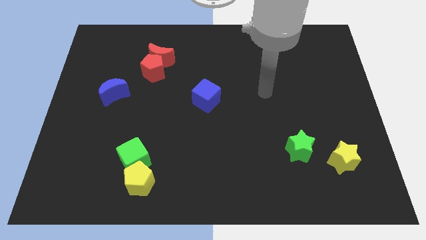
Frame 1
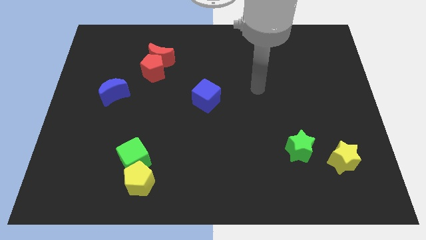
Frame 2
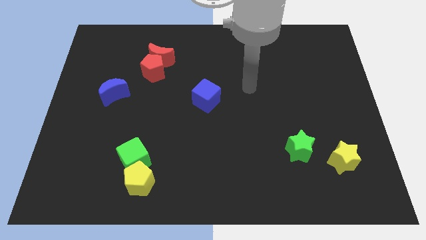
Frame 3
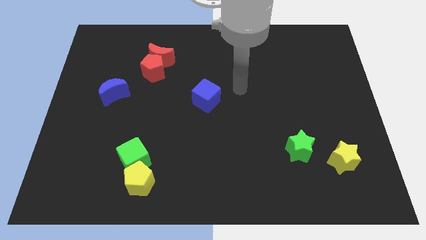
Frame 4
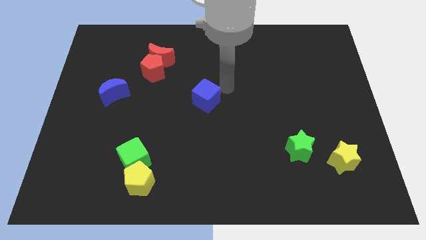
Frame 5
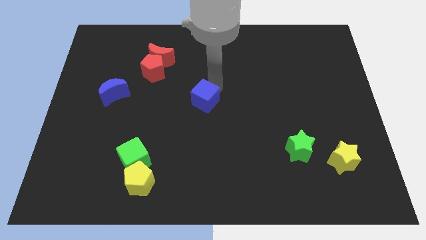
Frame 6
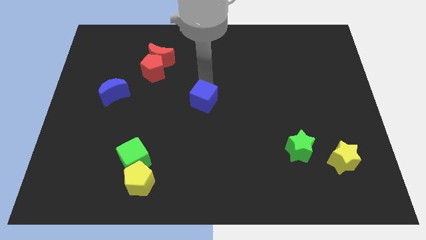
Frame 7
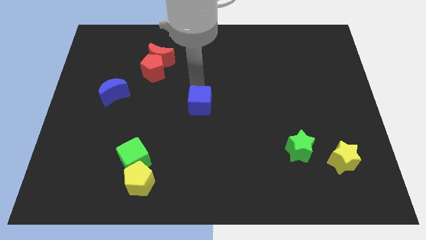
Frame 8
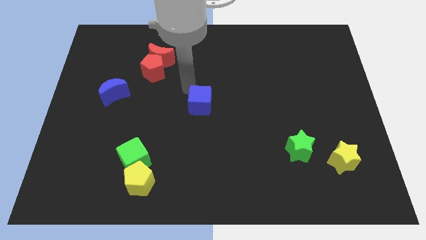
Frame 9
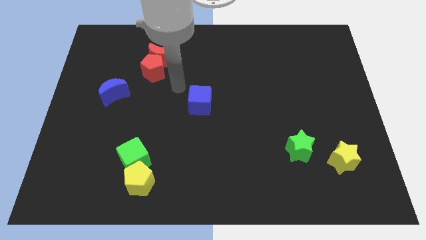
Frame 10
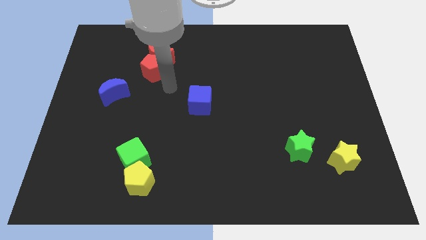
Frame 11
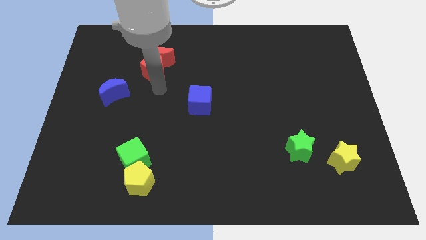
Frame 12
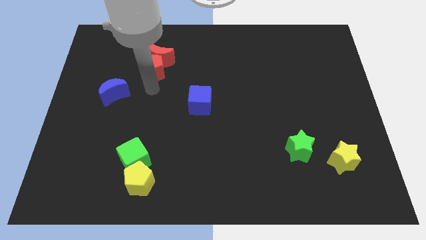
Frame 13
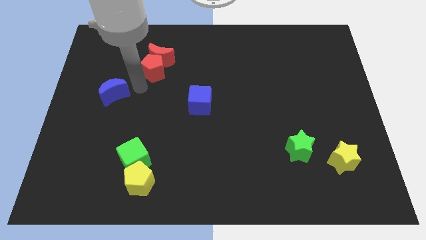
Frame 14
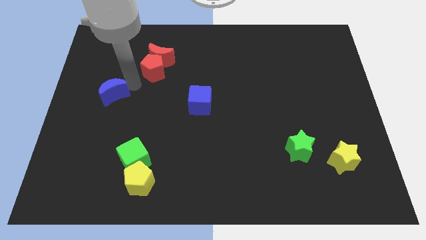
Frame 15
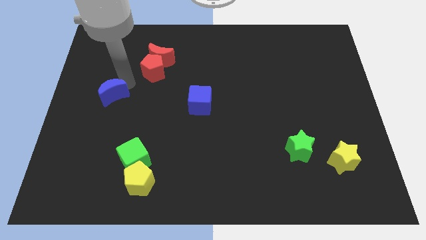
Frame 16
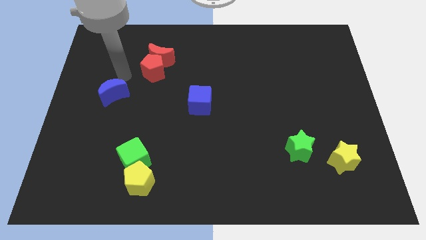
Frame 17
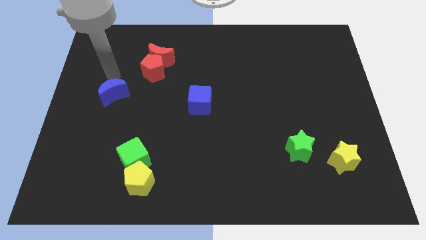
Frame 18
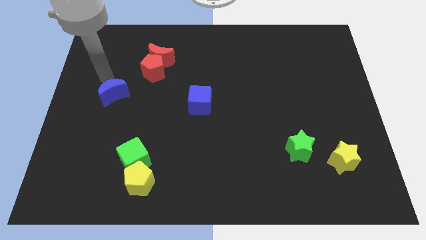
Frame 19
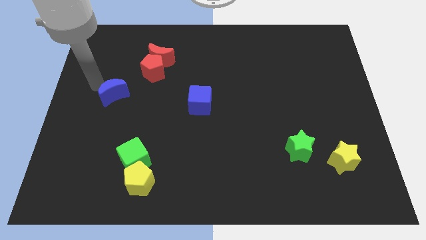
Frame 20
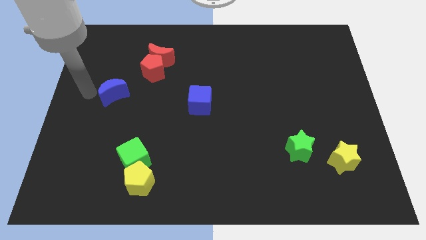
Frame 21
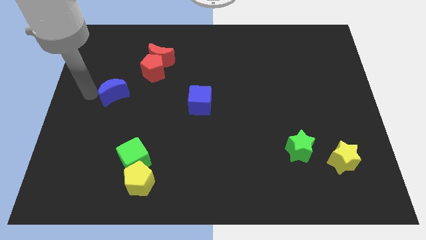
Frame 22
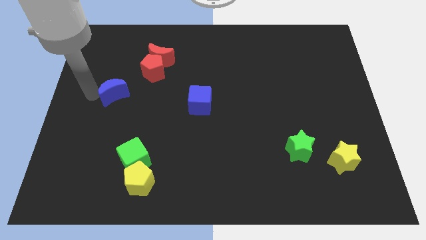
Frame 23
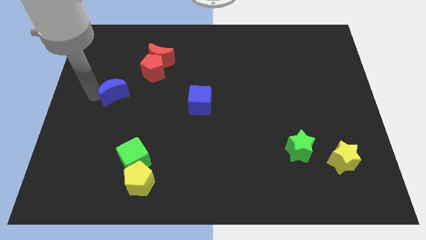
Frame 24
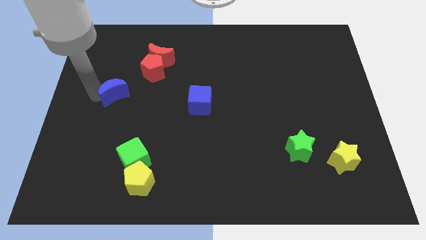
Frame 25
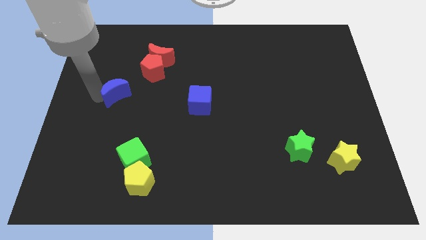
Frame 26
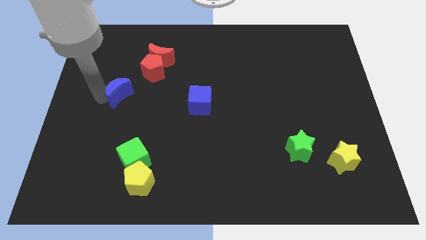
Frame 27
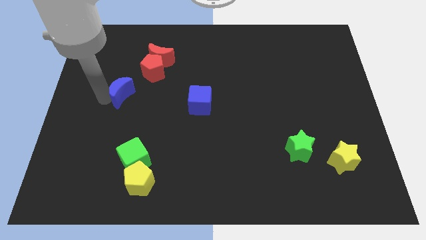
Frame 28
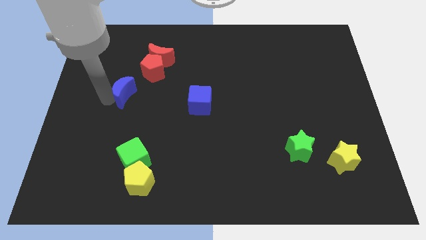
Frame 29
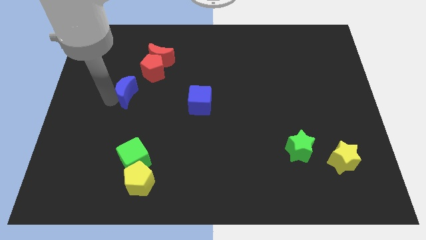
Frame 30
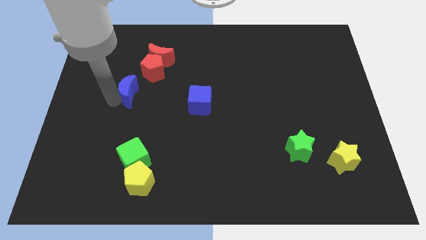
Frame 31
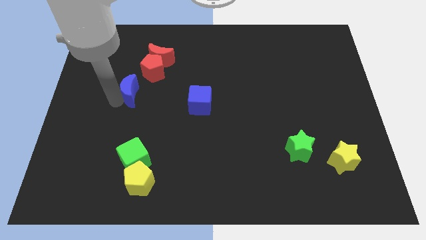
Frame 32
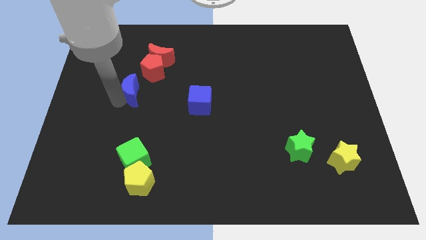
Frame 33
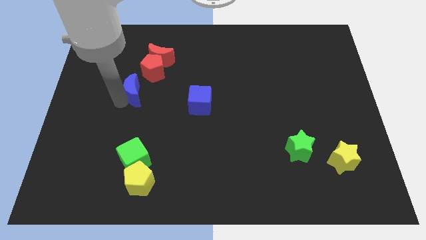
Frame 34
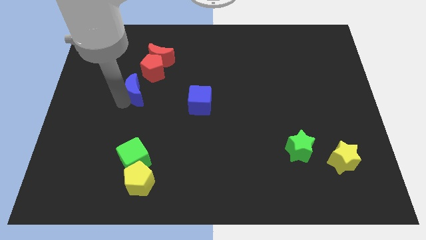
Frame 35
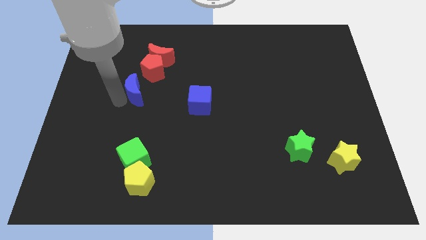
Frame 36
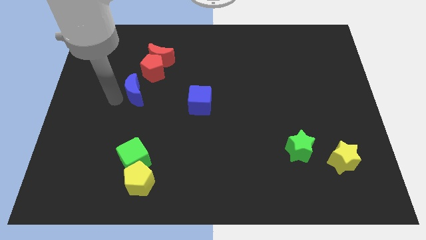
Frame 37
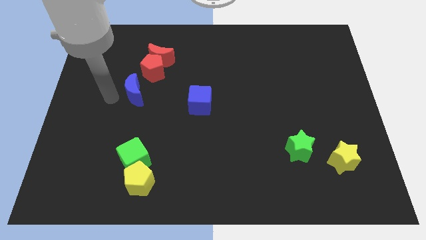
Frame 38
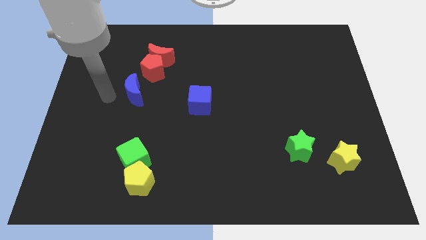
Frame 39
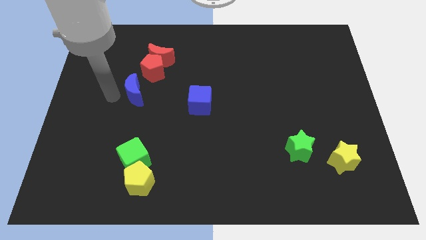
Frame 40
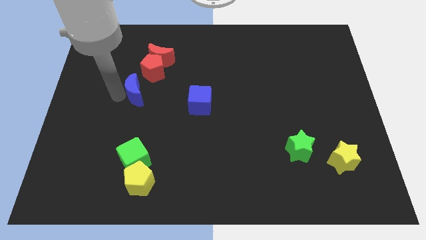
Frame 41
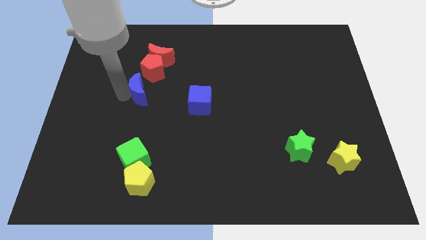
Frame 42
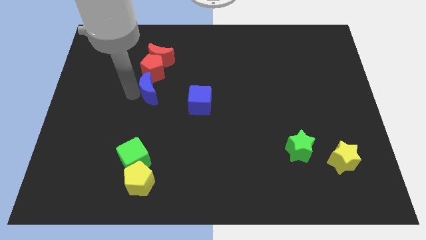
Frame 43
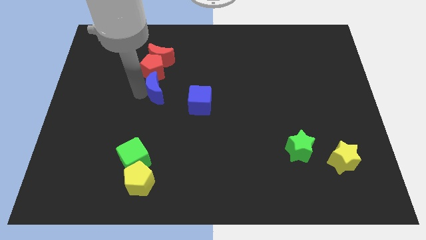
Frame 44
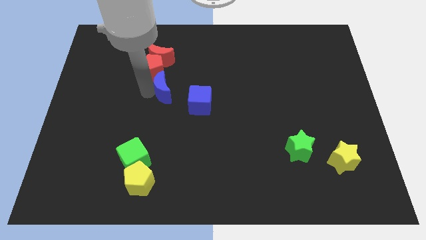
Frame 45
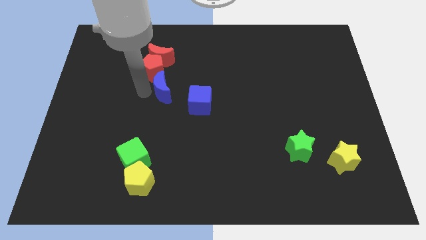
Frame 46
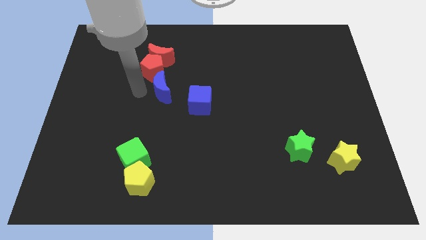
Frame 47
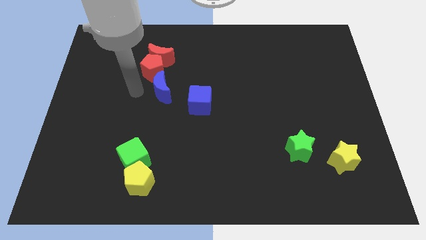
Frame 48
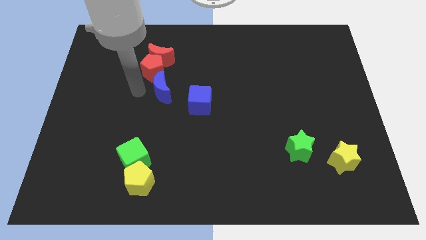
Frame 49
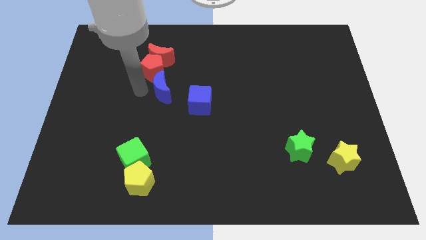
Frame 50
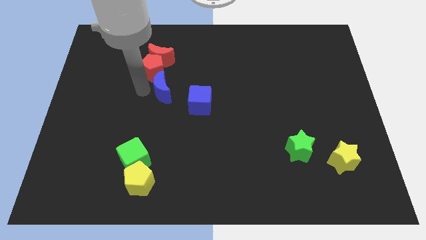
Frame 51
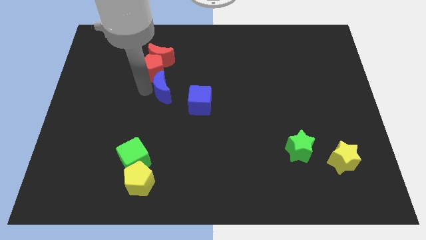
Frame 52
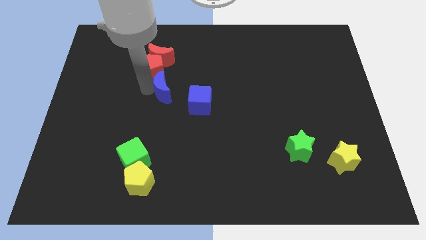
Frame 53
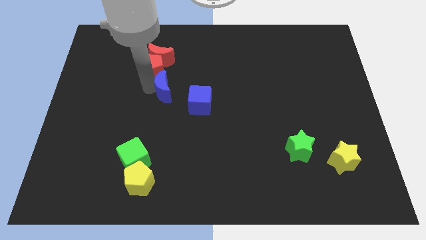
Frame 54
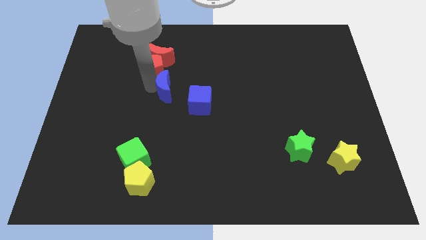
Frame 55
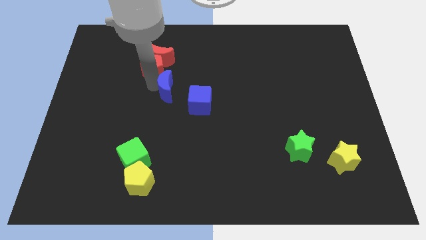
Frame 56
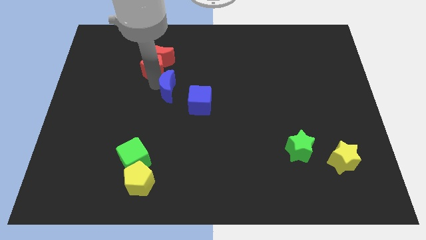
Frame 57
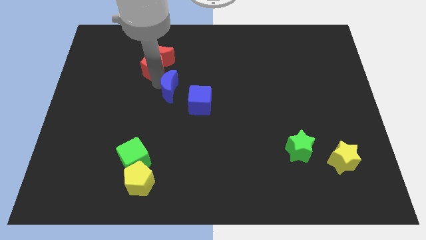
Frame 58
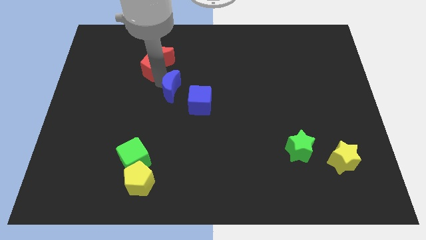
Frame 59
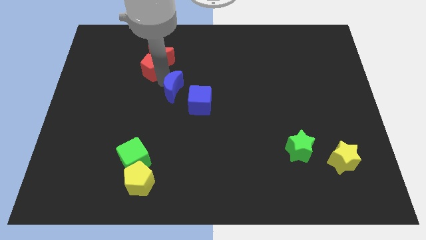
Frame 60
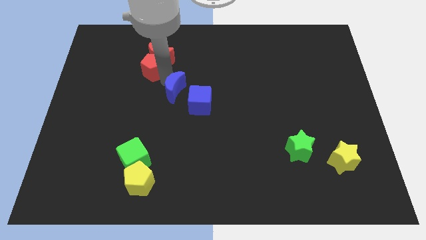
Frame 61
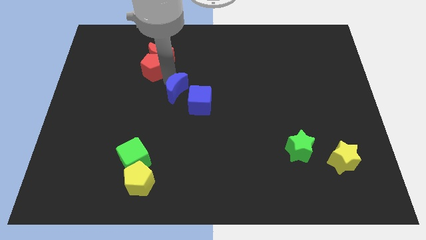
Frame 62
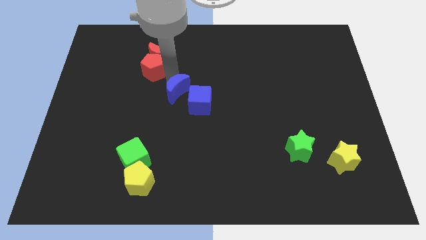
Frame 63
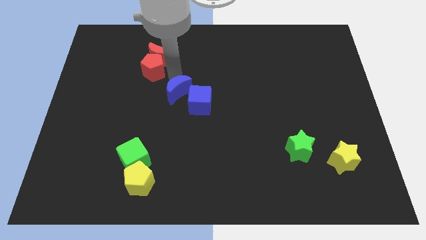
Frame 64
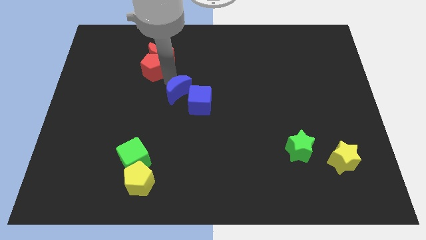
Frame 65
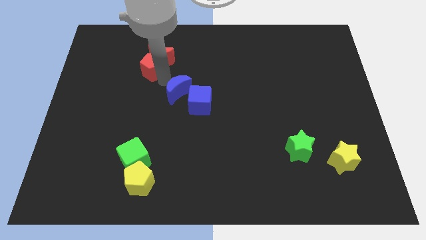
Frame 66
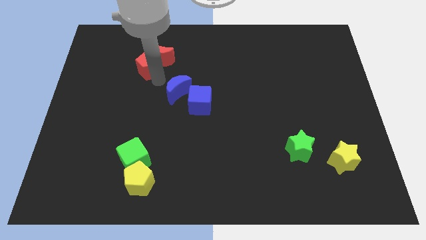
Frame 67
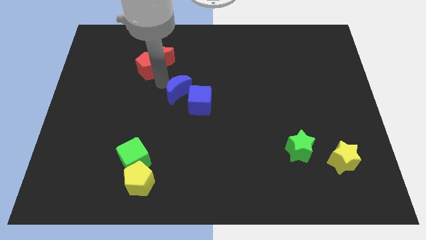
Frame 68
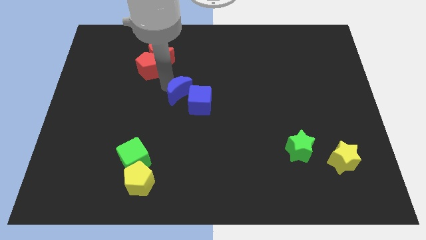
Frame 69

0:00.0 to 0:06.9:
move the blue moon to the blue cube
